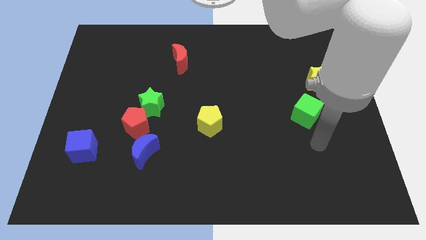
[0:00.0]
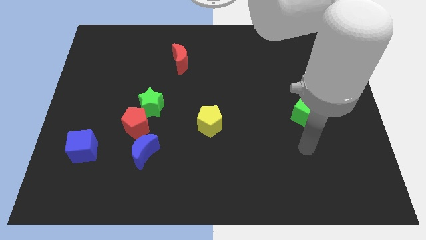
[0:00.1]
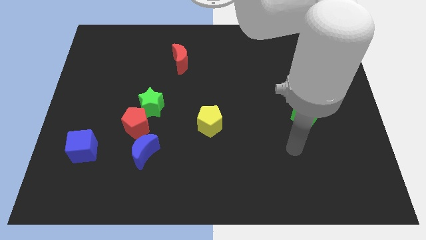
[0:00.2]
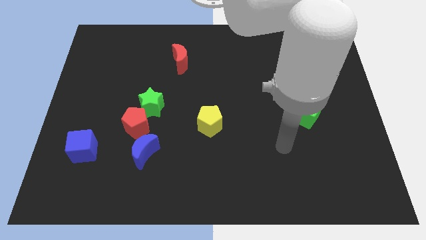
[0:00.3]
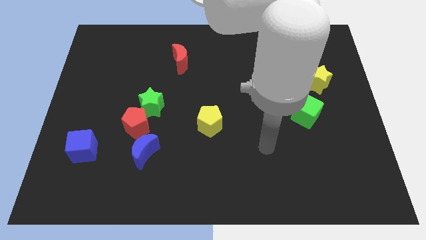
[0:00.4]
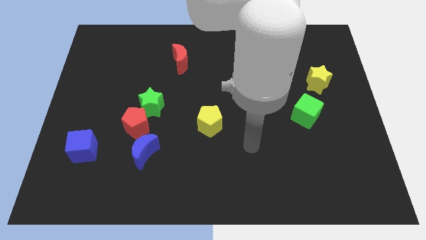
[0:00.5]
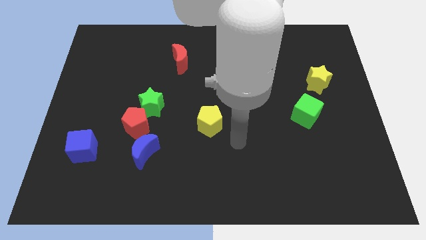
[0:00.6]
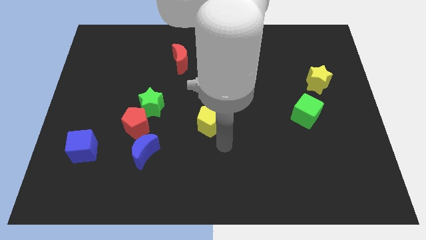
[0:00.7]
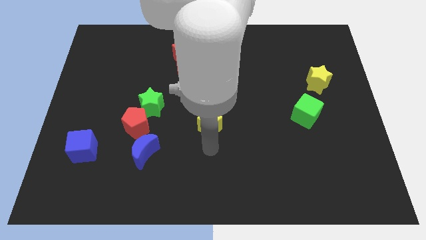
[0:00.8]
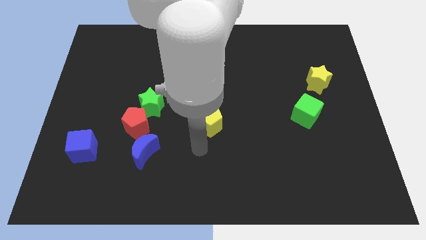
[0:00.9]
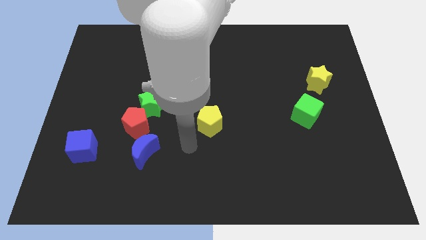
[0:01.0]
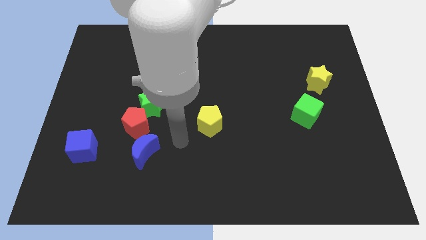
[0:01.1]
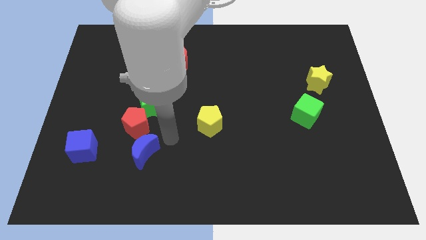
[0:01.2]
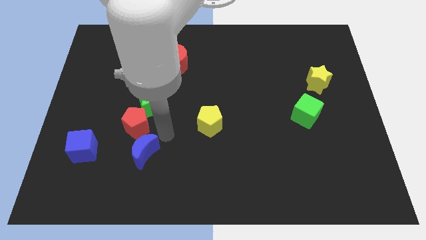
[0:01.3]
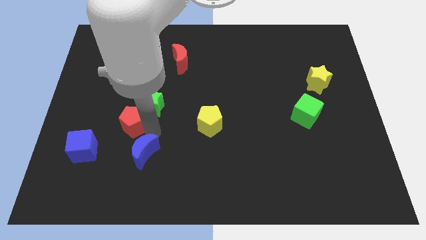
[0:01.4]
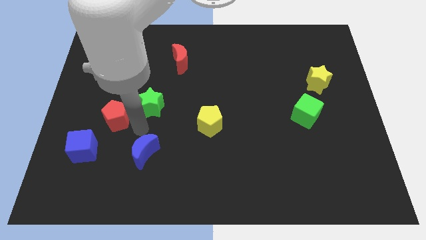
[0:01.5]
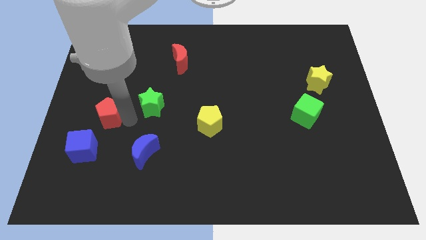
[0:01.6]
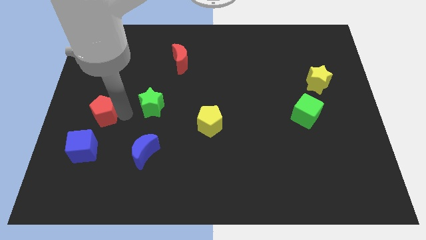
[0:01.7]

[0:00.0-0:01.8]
move the green star away from the red pentagon

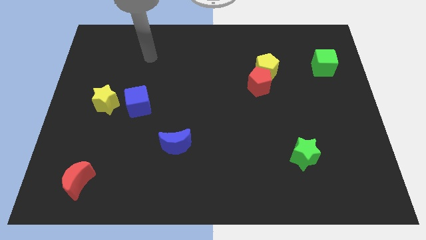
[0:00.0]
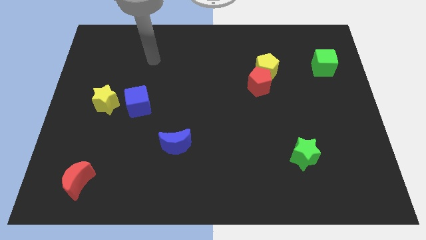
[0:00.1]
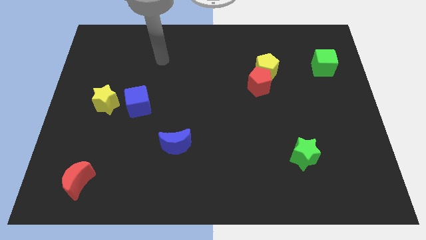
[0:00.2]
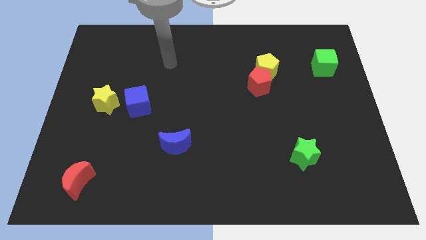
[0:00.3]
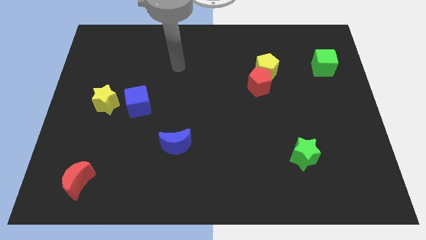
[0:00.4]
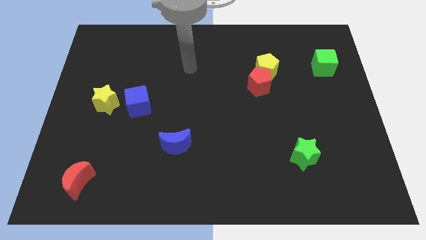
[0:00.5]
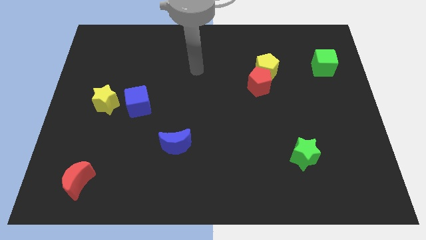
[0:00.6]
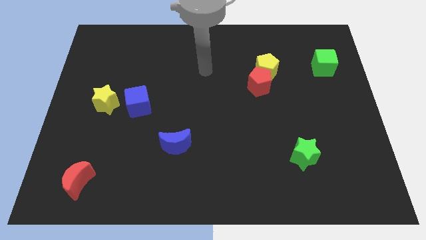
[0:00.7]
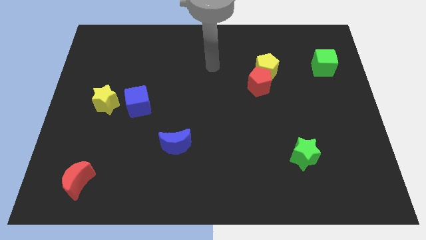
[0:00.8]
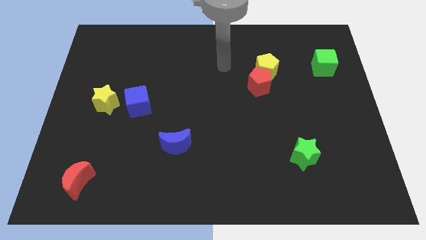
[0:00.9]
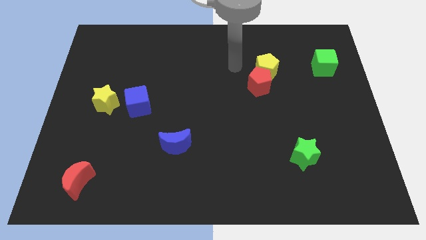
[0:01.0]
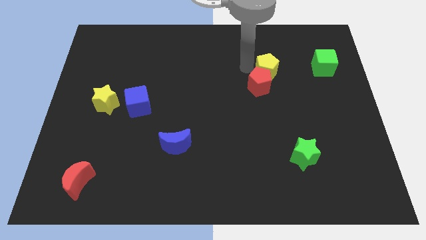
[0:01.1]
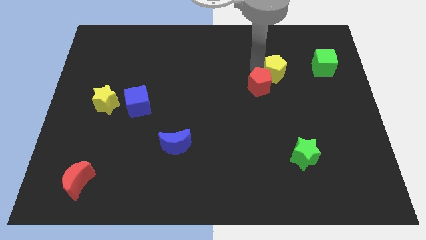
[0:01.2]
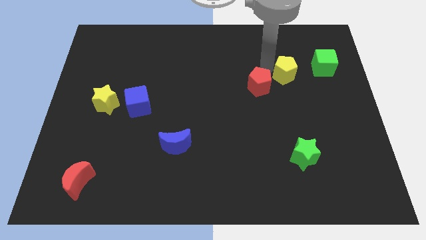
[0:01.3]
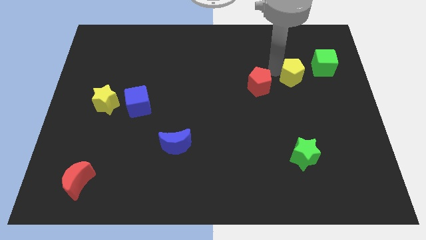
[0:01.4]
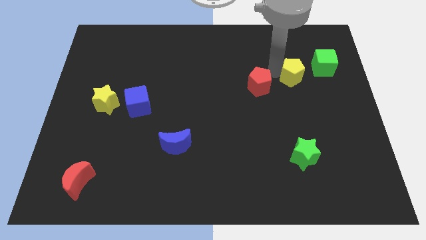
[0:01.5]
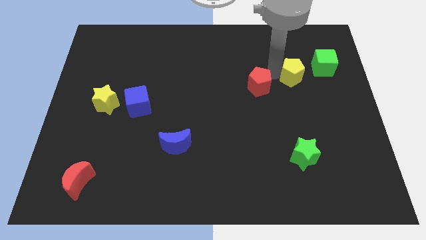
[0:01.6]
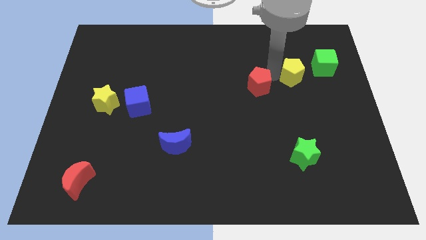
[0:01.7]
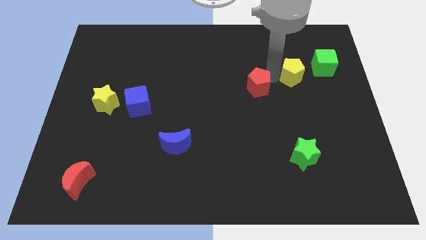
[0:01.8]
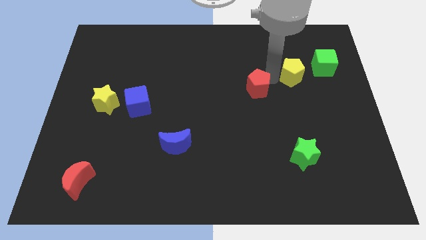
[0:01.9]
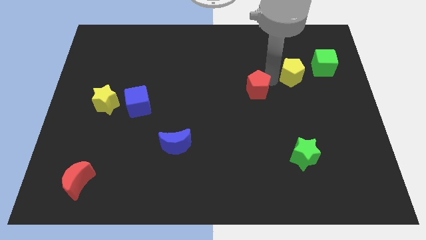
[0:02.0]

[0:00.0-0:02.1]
separate the red pentagon from the yellow pentagon

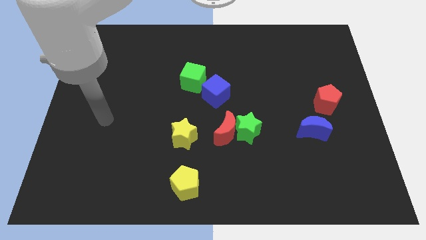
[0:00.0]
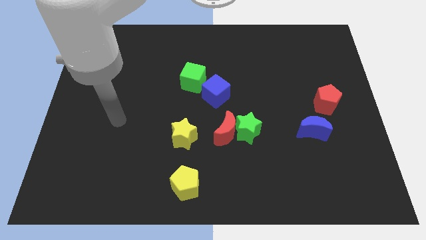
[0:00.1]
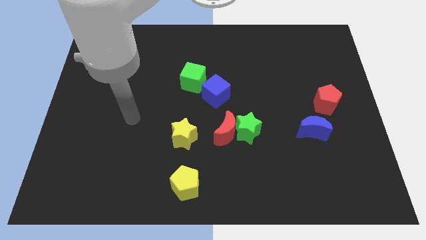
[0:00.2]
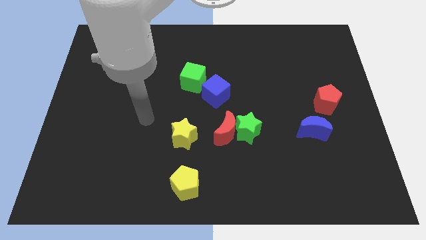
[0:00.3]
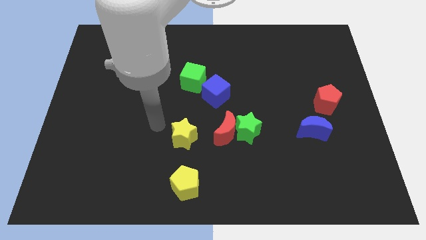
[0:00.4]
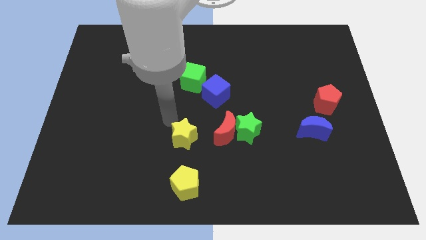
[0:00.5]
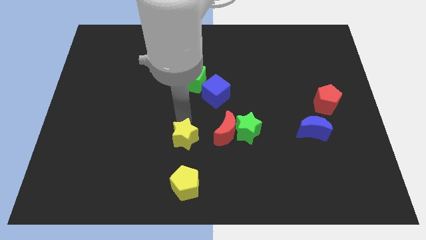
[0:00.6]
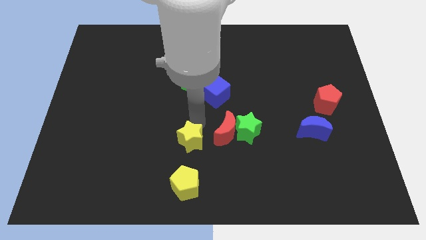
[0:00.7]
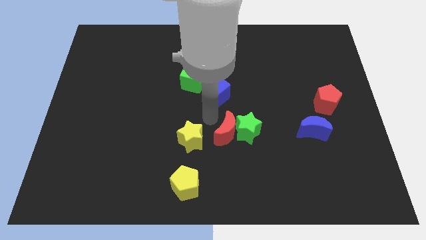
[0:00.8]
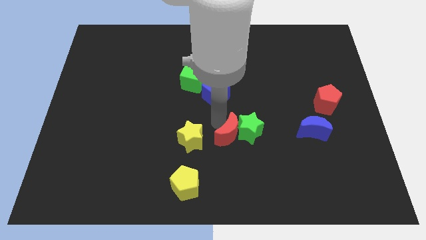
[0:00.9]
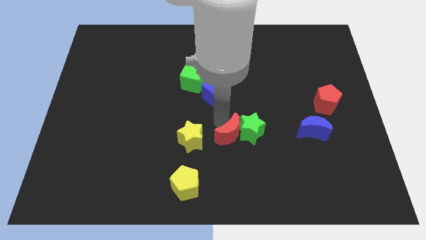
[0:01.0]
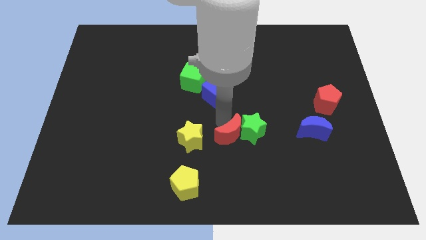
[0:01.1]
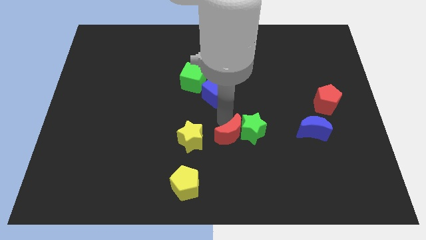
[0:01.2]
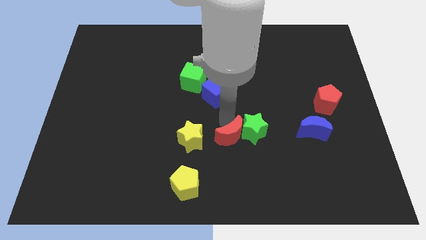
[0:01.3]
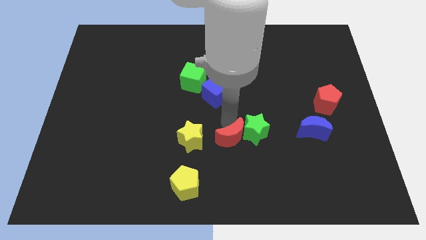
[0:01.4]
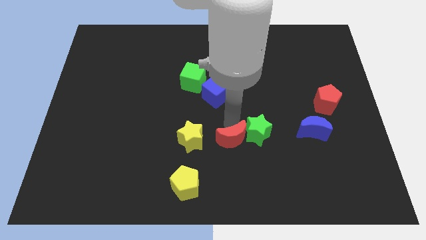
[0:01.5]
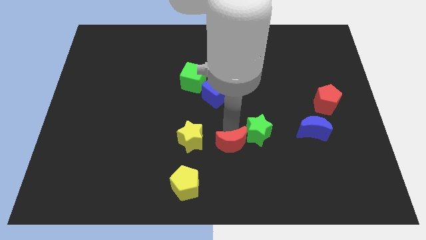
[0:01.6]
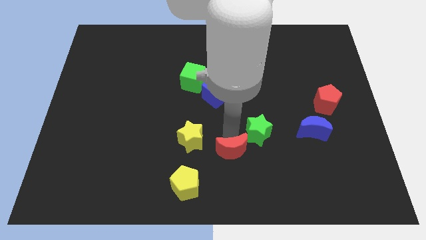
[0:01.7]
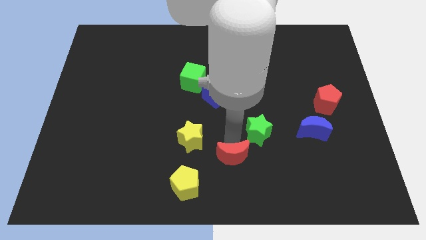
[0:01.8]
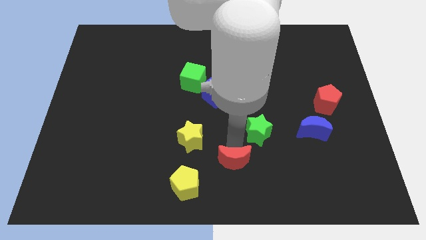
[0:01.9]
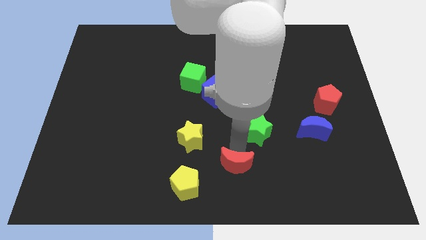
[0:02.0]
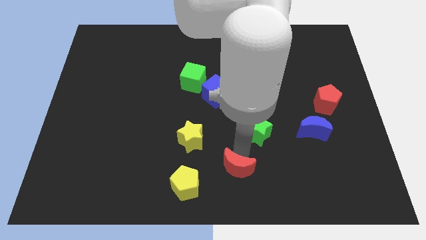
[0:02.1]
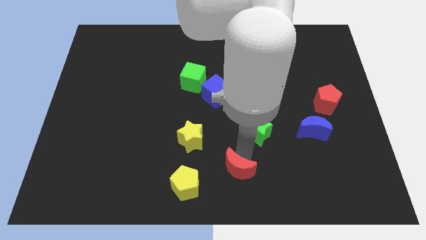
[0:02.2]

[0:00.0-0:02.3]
move the green star away from the red moon

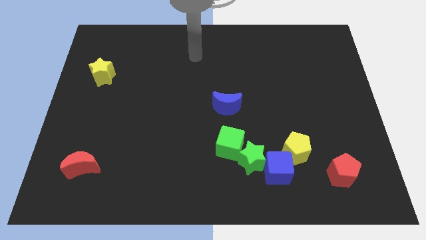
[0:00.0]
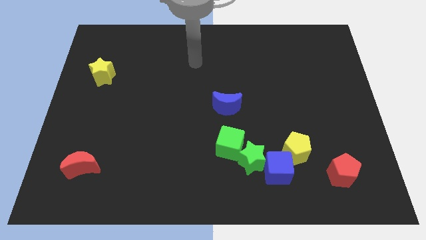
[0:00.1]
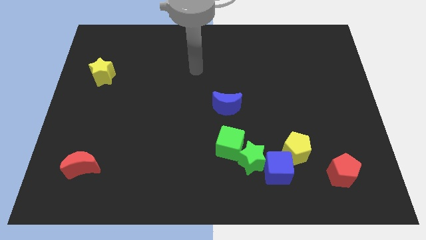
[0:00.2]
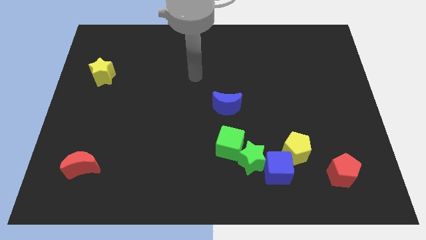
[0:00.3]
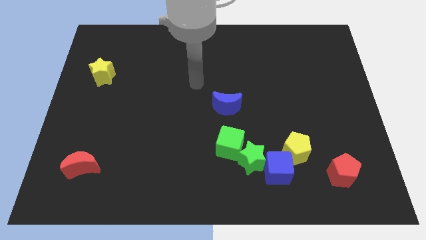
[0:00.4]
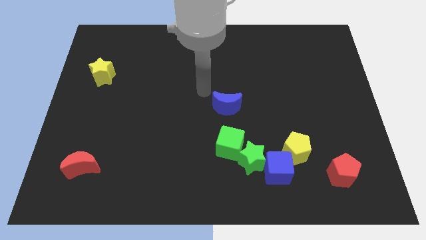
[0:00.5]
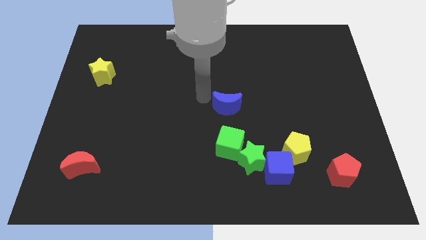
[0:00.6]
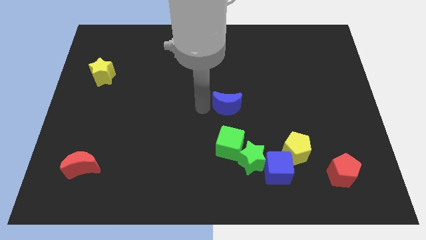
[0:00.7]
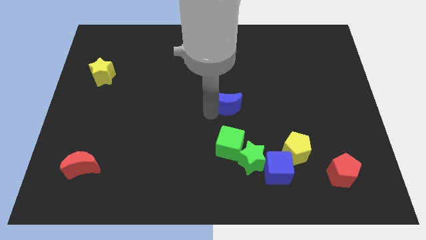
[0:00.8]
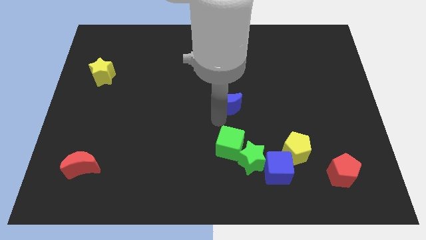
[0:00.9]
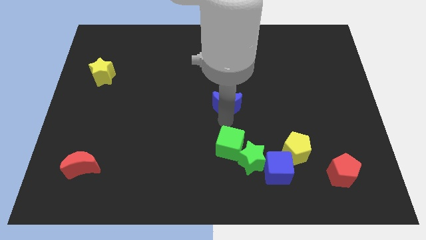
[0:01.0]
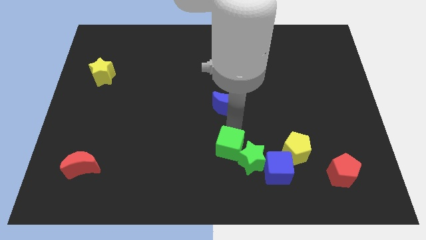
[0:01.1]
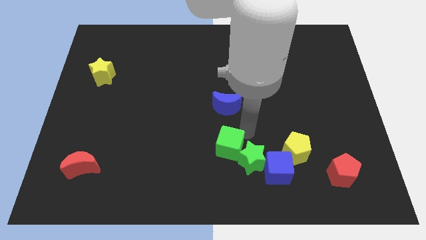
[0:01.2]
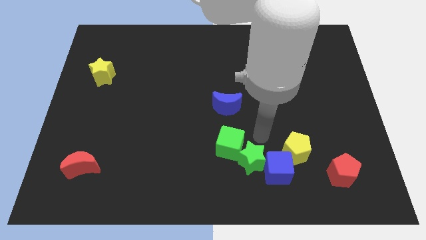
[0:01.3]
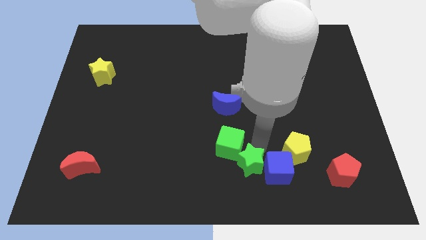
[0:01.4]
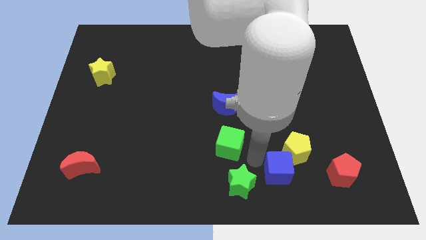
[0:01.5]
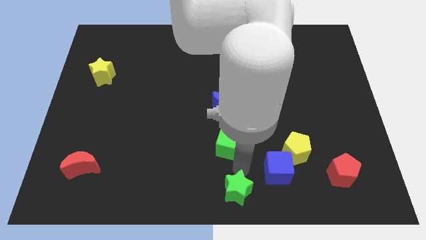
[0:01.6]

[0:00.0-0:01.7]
separate the green cube from the green star

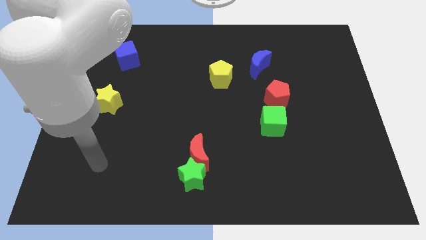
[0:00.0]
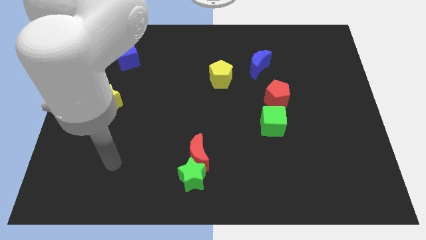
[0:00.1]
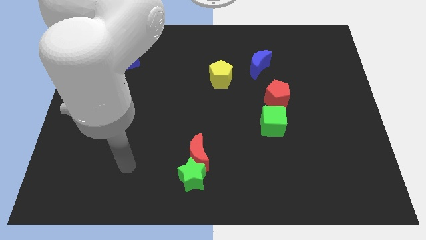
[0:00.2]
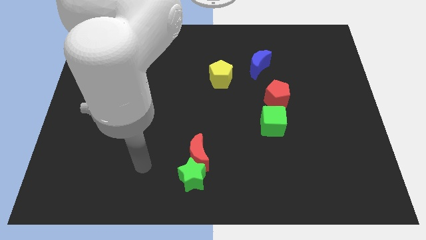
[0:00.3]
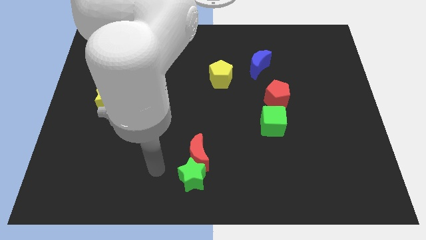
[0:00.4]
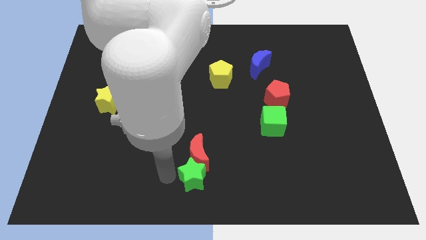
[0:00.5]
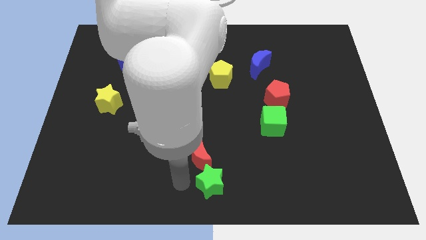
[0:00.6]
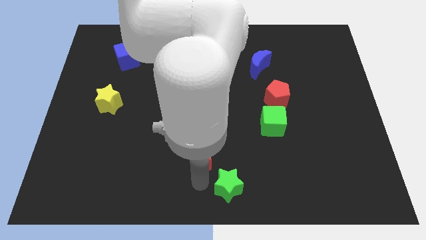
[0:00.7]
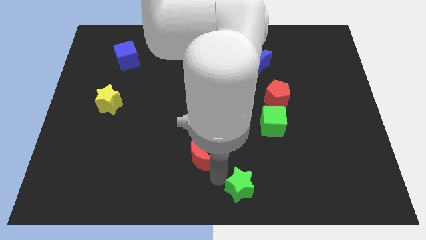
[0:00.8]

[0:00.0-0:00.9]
separate the red moon from the green star

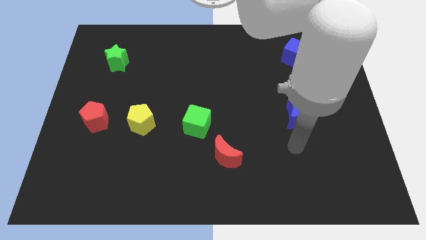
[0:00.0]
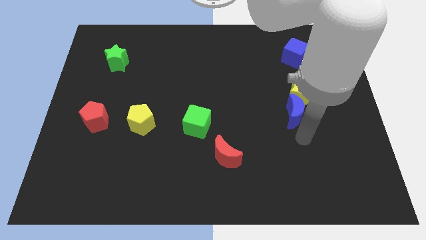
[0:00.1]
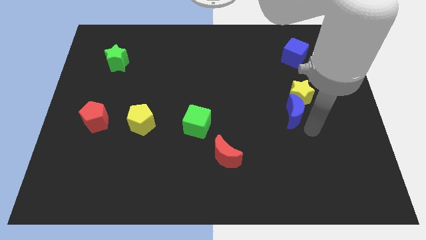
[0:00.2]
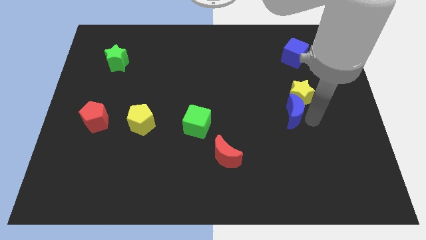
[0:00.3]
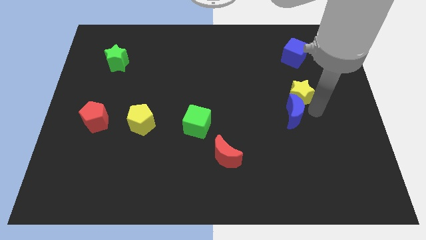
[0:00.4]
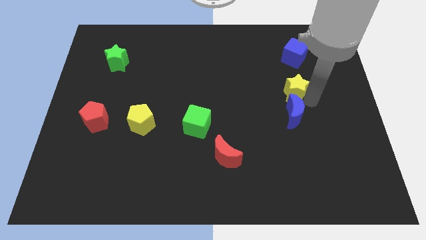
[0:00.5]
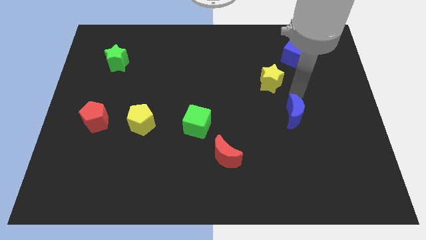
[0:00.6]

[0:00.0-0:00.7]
separate the blue moon from the yellow star
